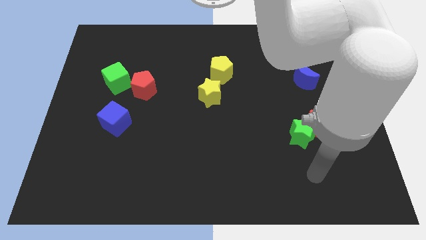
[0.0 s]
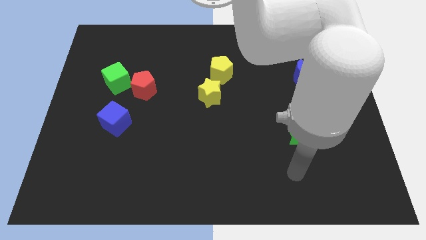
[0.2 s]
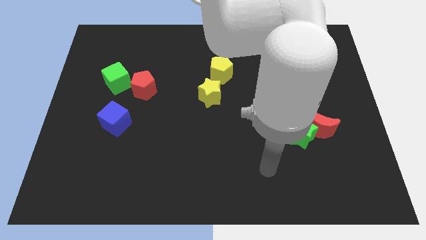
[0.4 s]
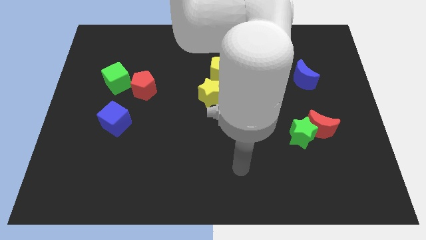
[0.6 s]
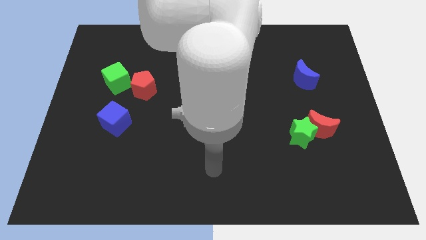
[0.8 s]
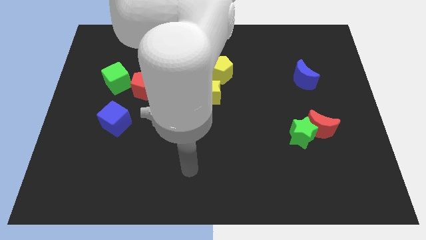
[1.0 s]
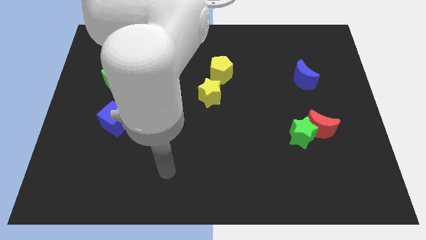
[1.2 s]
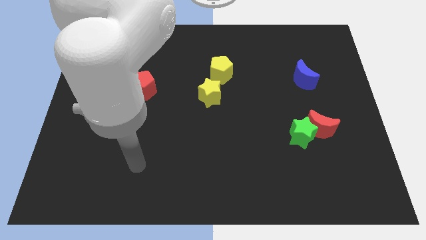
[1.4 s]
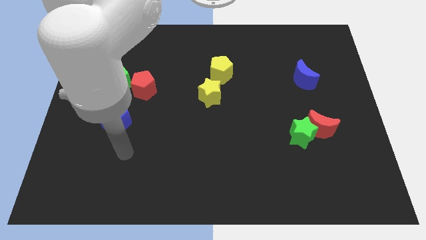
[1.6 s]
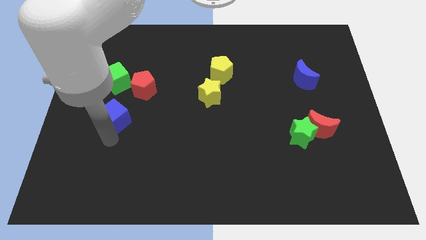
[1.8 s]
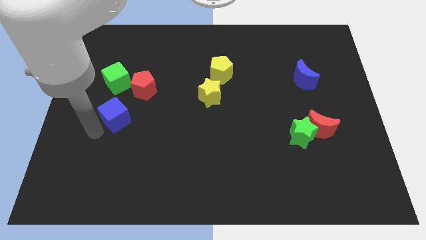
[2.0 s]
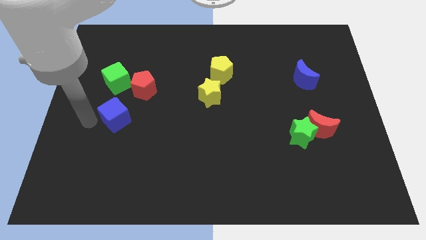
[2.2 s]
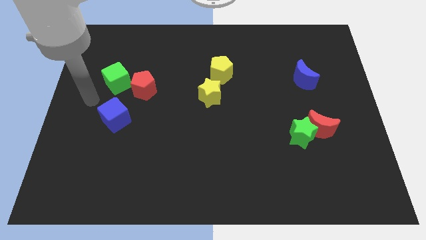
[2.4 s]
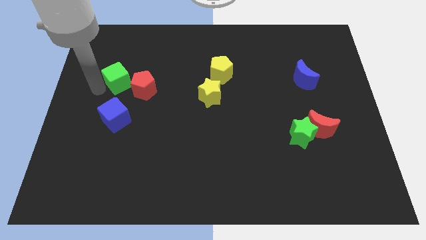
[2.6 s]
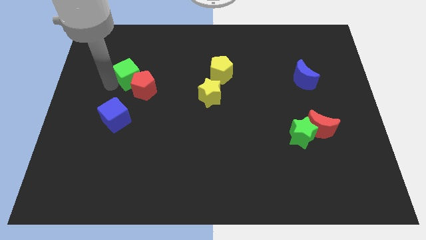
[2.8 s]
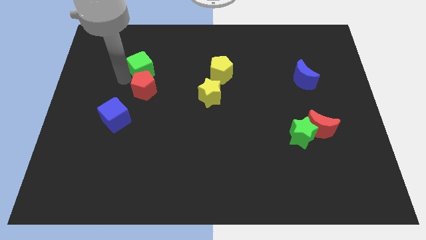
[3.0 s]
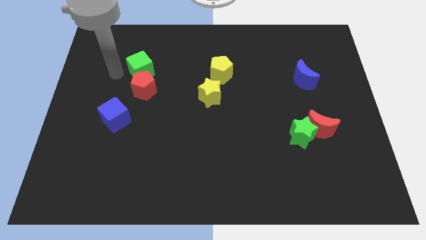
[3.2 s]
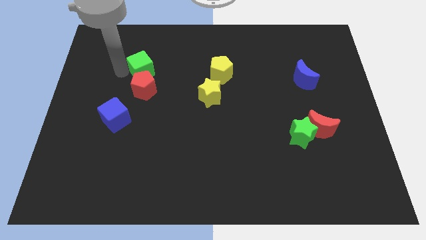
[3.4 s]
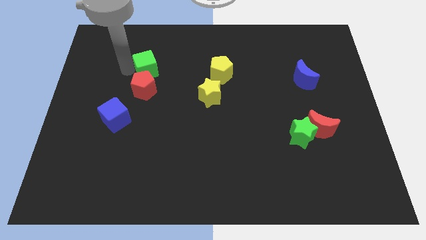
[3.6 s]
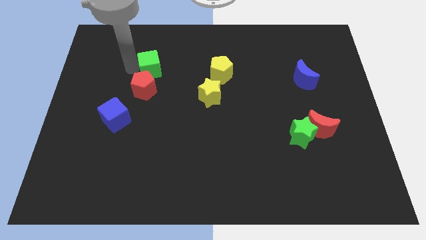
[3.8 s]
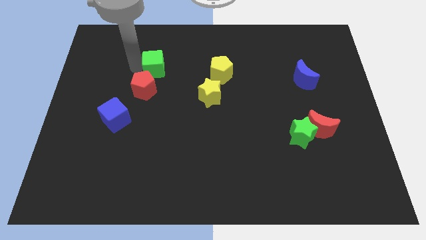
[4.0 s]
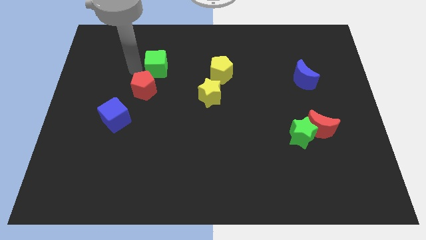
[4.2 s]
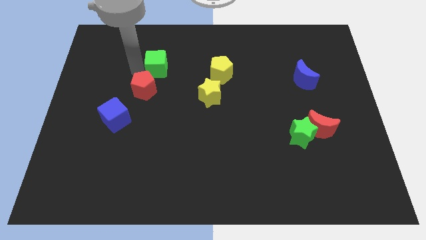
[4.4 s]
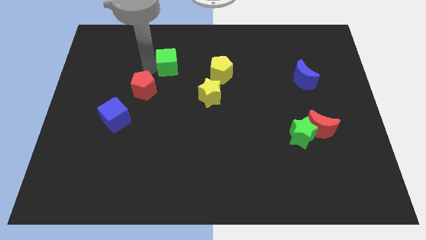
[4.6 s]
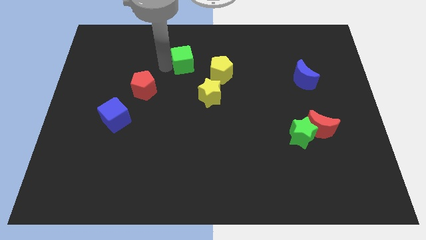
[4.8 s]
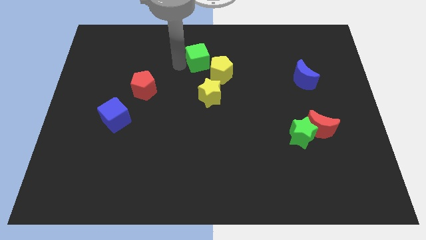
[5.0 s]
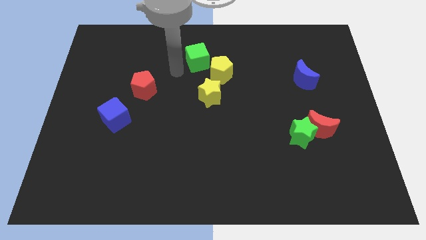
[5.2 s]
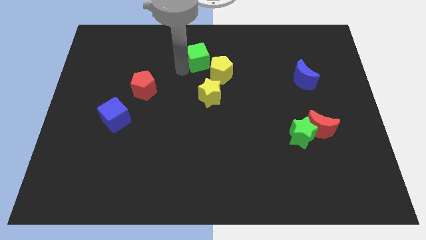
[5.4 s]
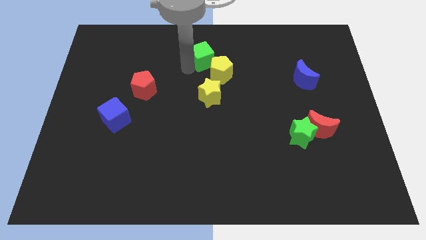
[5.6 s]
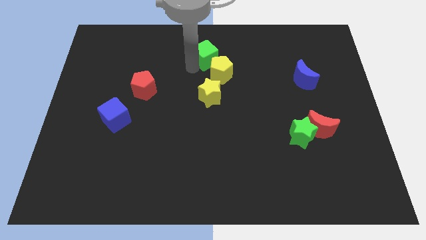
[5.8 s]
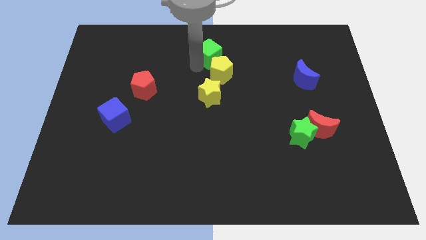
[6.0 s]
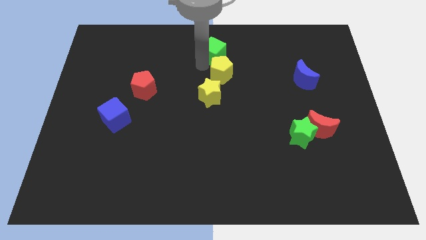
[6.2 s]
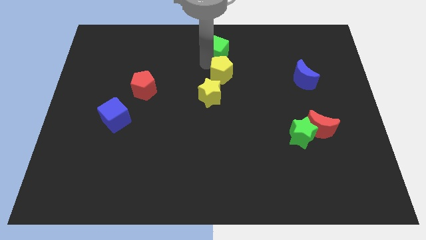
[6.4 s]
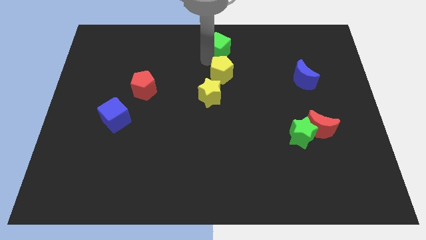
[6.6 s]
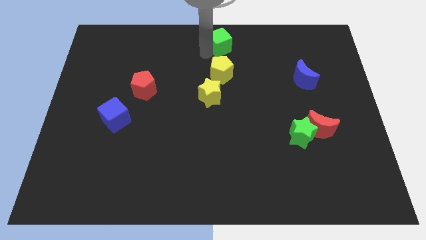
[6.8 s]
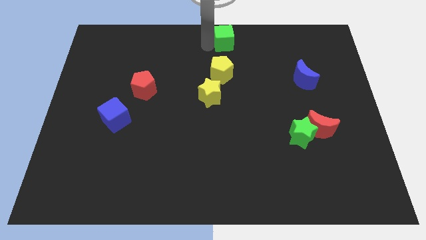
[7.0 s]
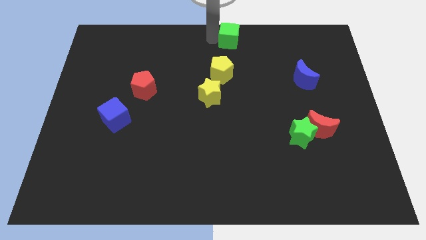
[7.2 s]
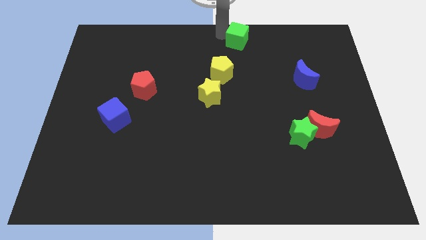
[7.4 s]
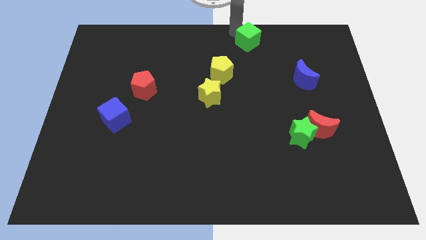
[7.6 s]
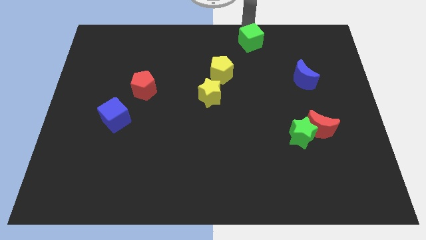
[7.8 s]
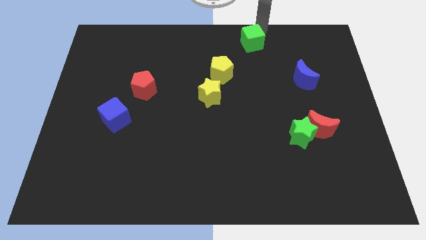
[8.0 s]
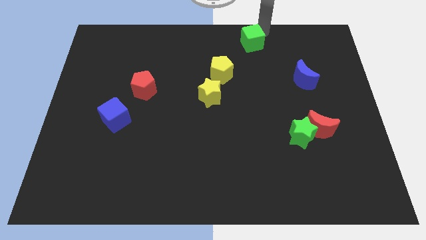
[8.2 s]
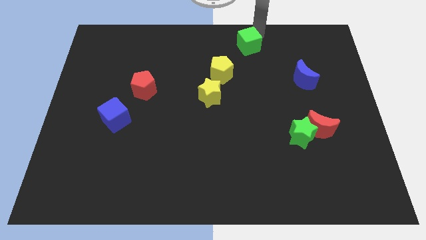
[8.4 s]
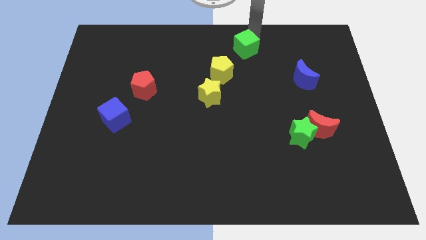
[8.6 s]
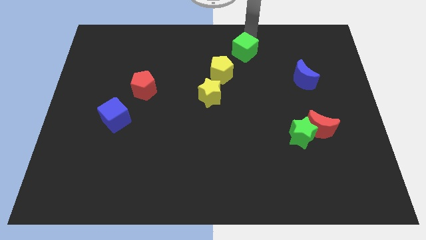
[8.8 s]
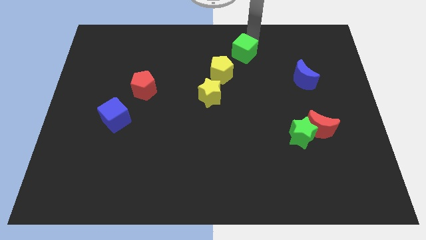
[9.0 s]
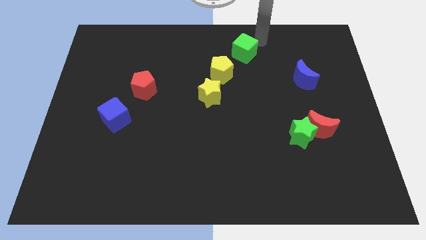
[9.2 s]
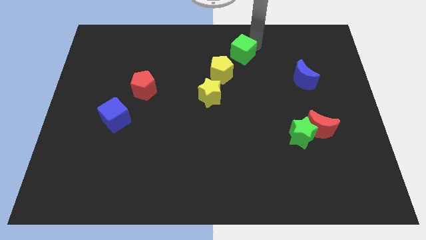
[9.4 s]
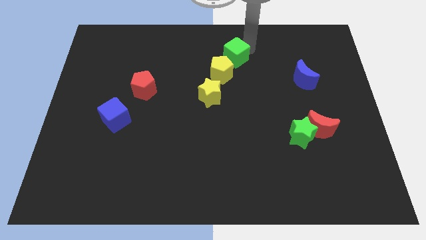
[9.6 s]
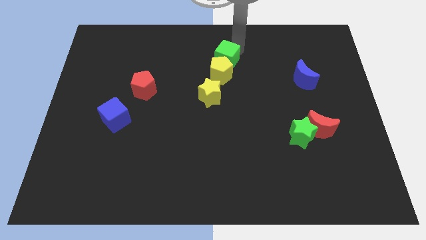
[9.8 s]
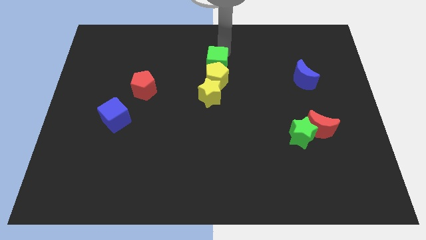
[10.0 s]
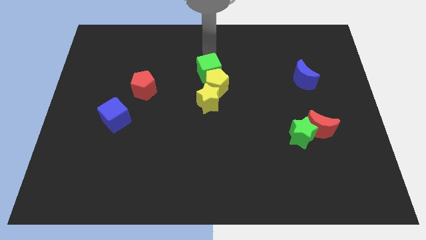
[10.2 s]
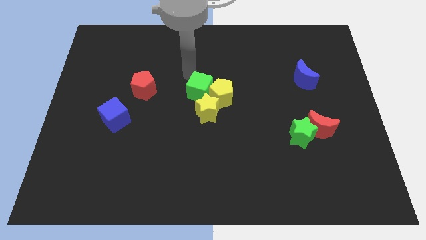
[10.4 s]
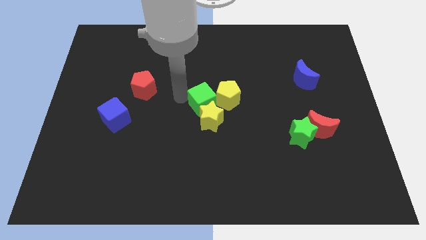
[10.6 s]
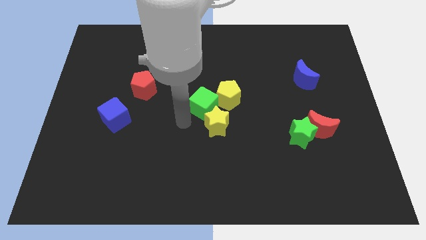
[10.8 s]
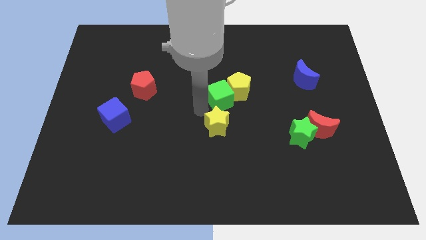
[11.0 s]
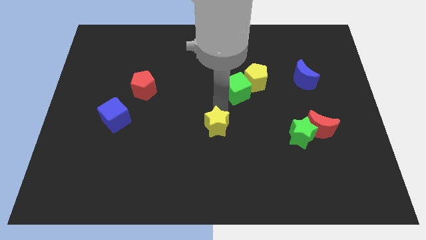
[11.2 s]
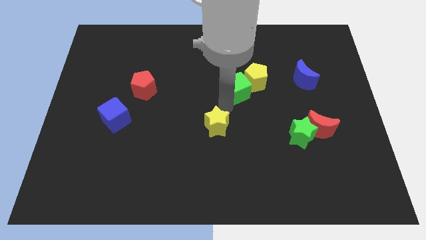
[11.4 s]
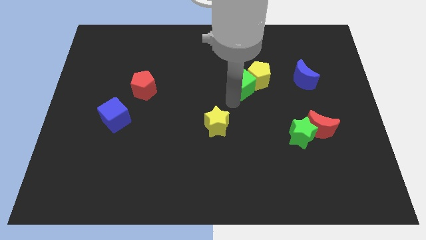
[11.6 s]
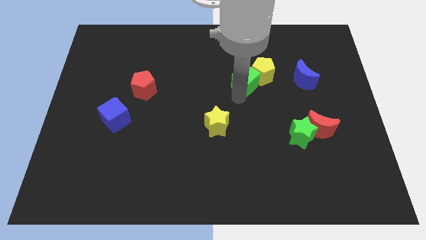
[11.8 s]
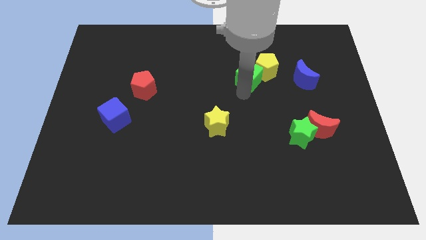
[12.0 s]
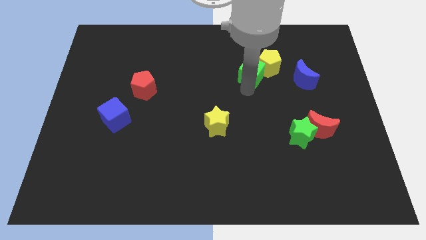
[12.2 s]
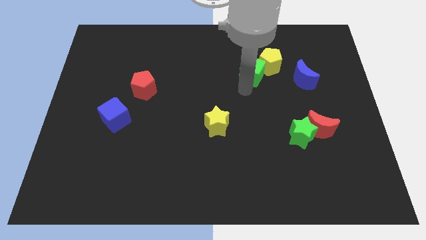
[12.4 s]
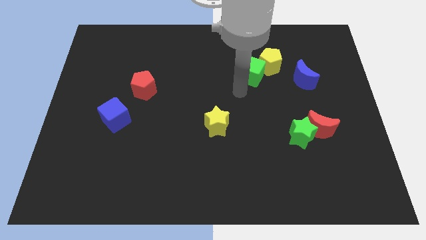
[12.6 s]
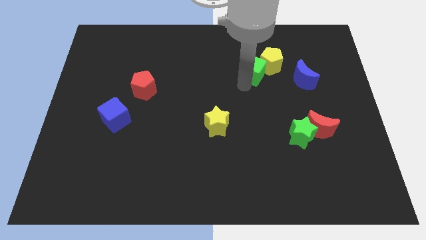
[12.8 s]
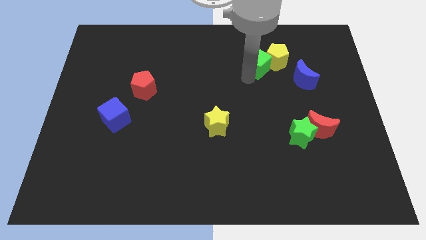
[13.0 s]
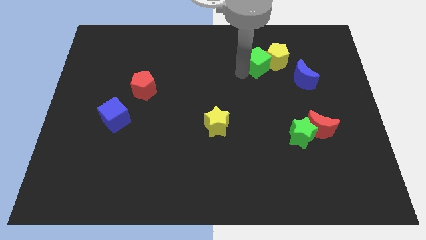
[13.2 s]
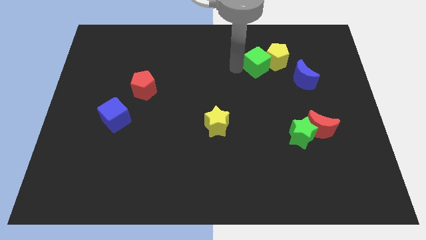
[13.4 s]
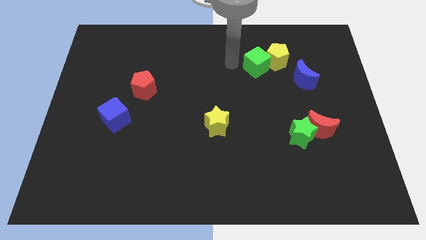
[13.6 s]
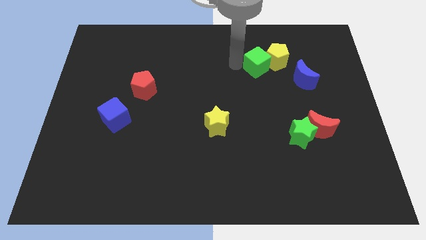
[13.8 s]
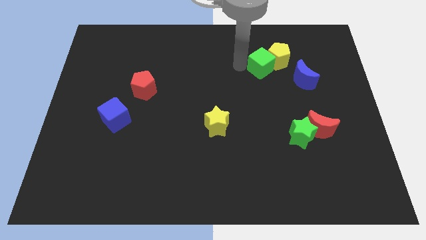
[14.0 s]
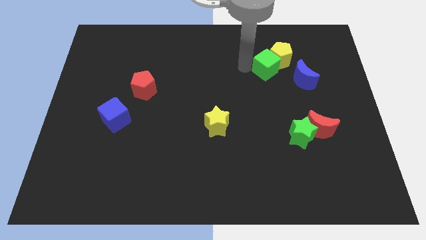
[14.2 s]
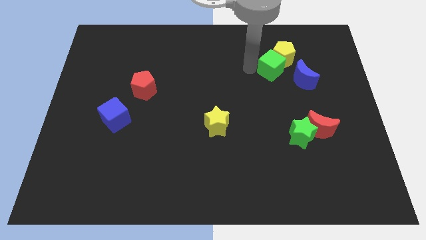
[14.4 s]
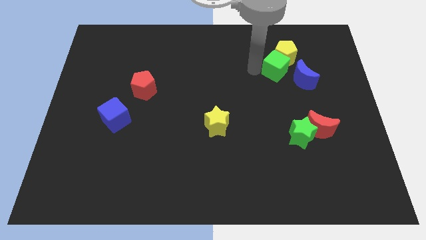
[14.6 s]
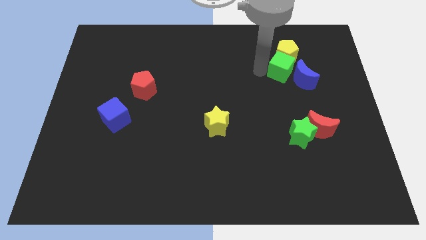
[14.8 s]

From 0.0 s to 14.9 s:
push the green cube towards the blue moon
